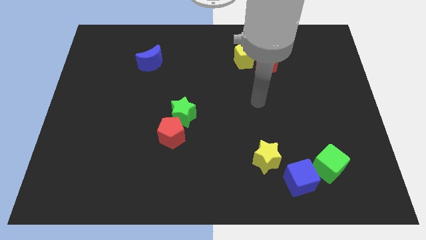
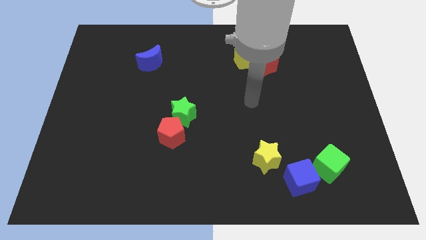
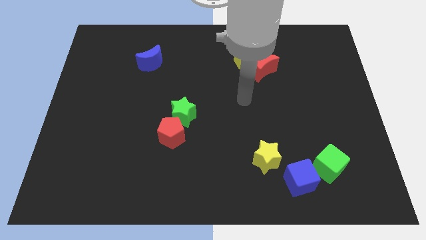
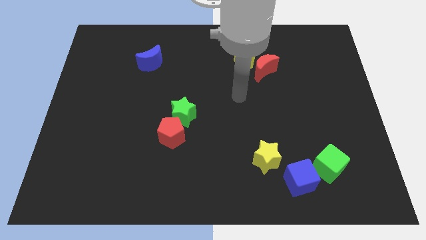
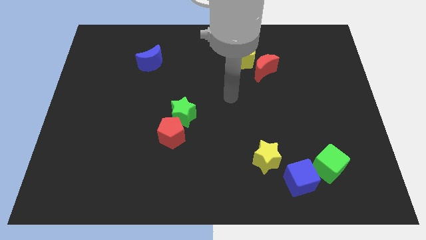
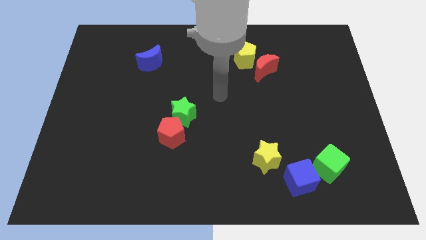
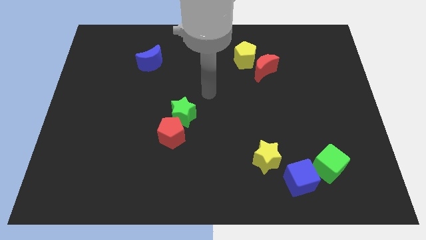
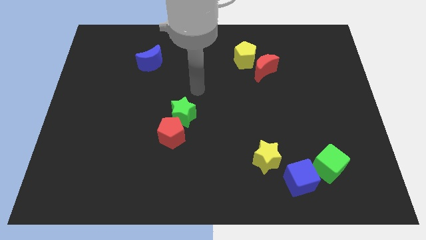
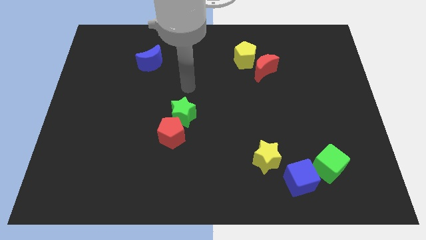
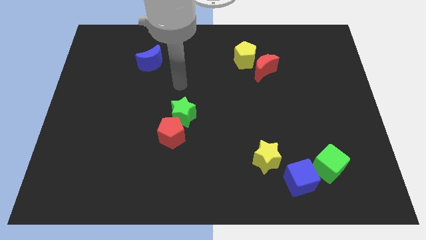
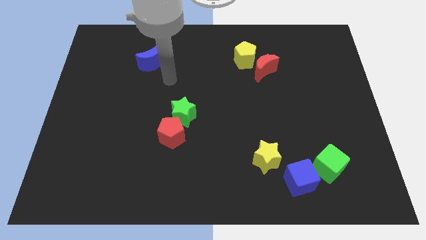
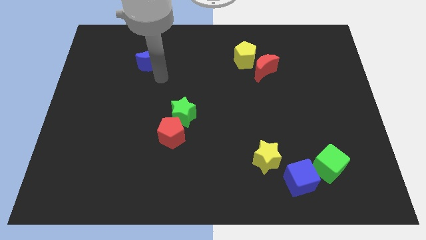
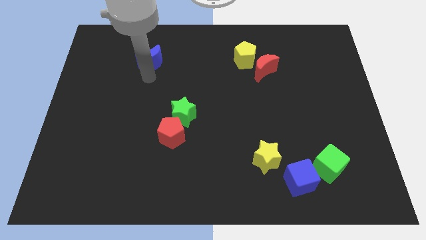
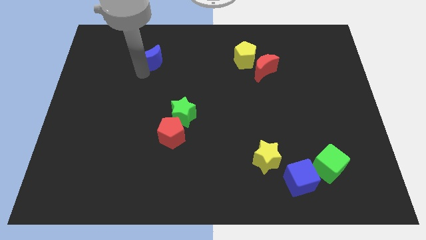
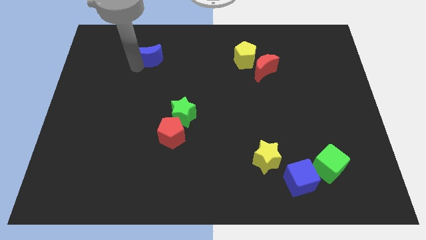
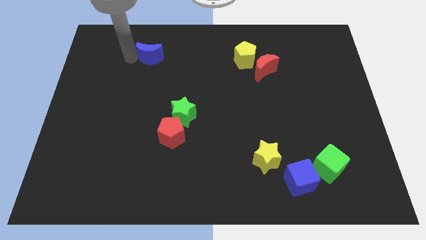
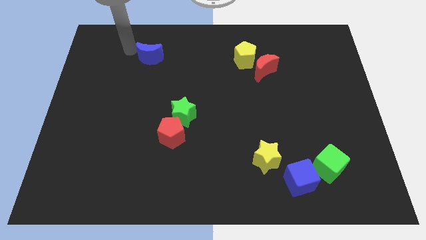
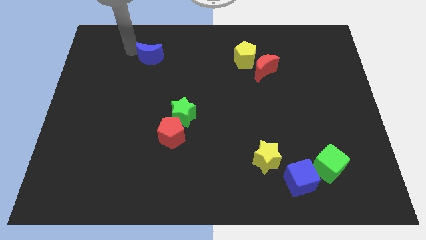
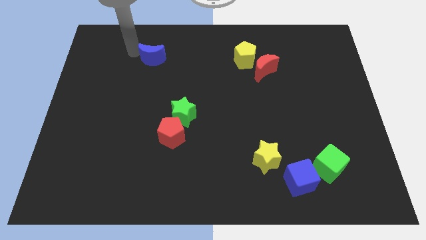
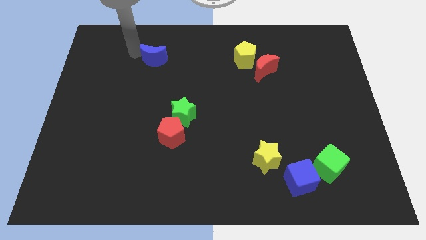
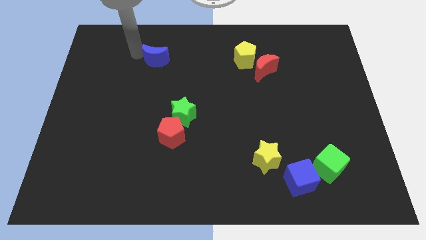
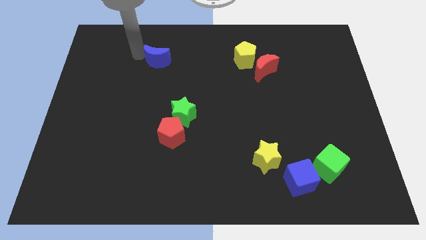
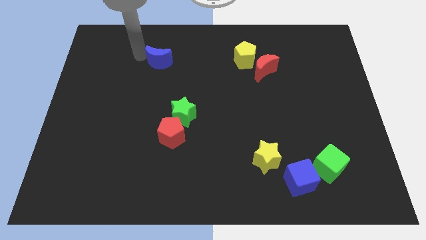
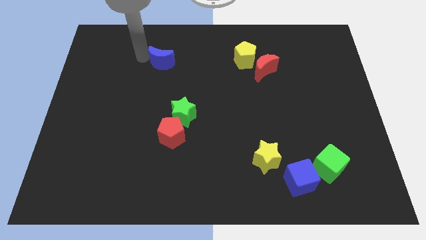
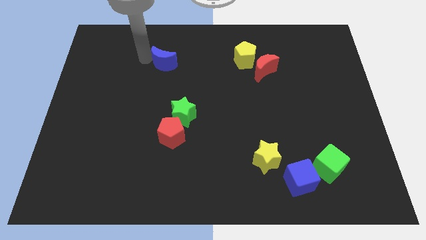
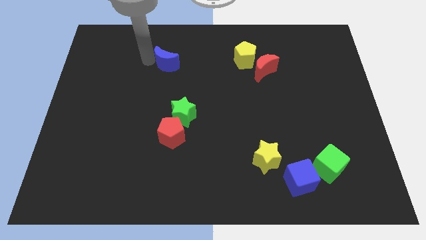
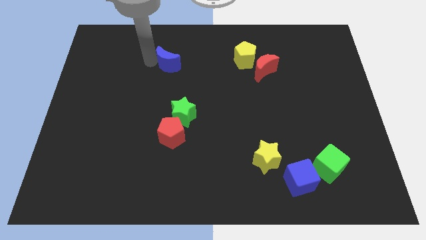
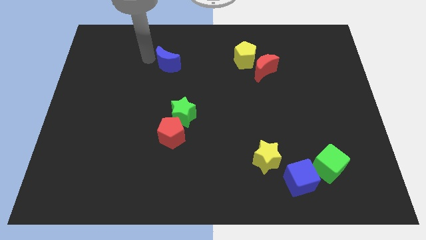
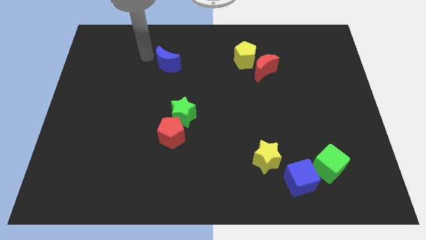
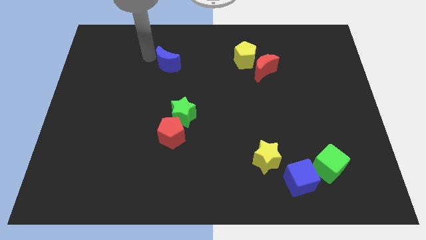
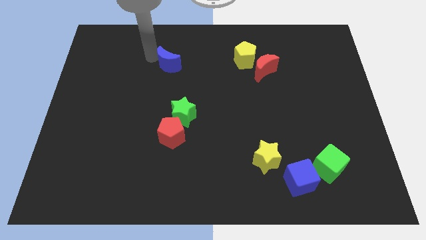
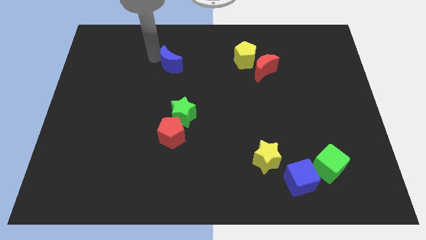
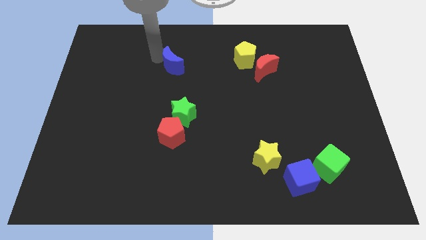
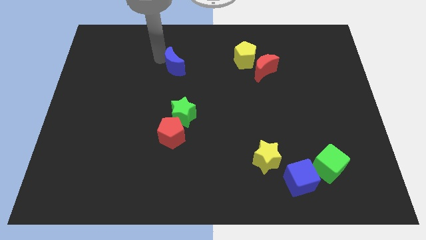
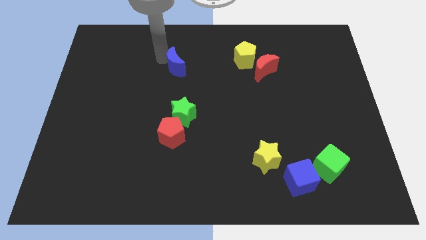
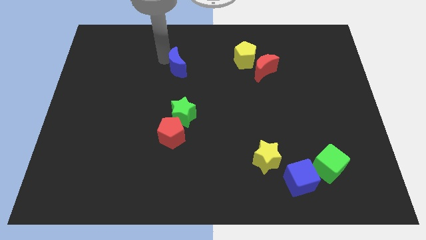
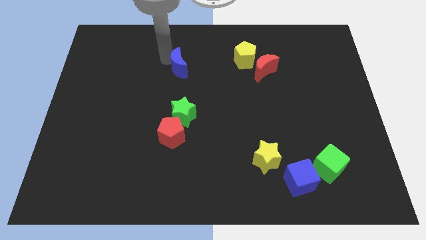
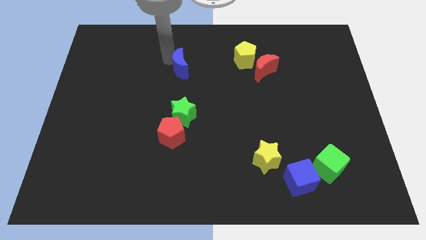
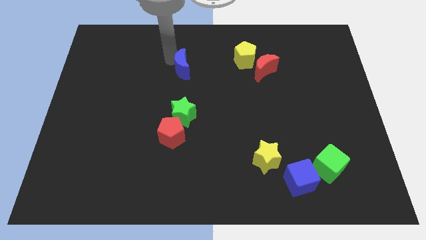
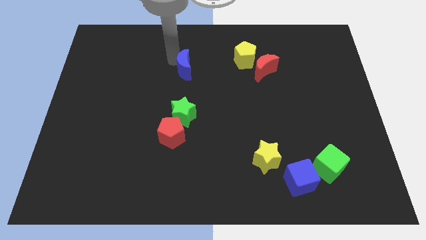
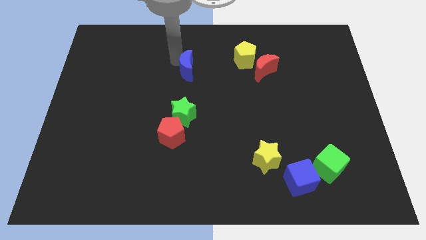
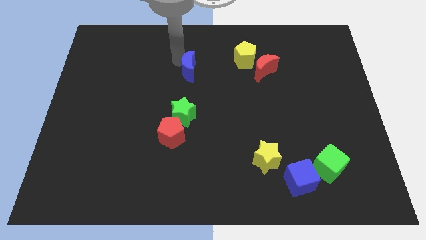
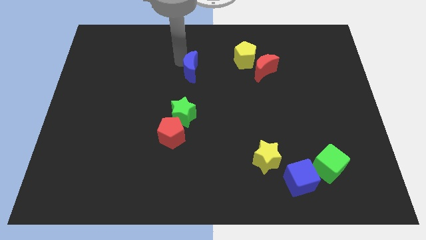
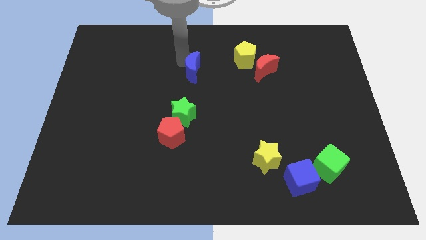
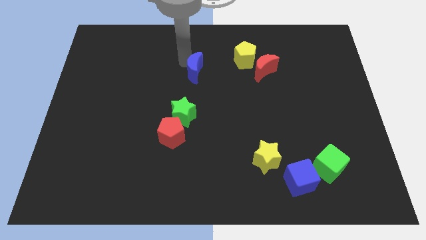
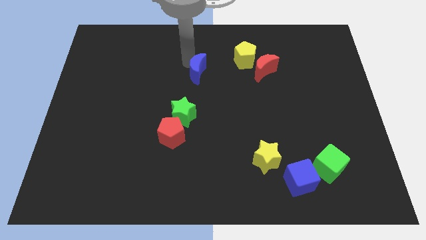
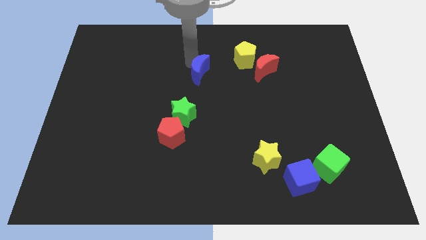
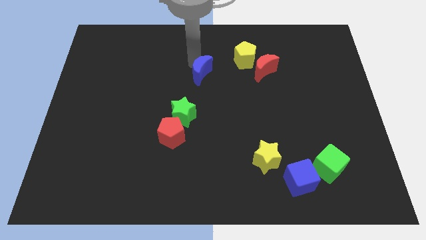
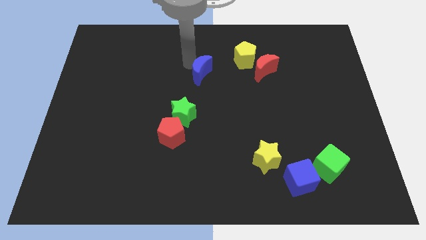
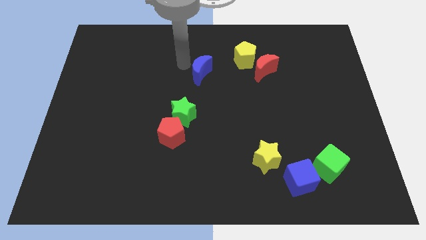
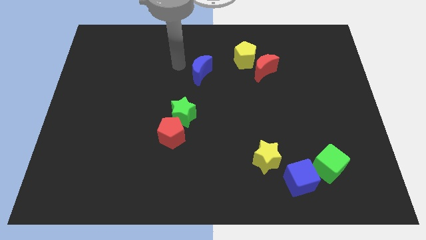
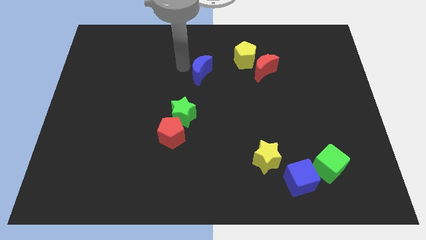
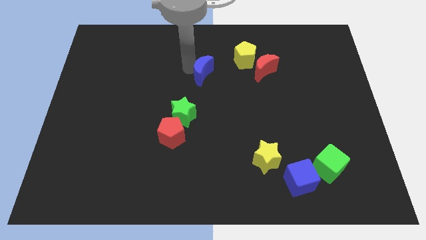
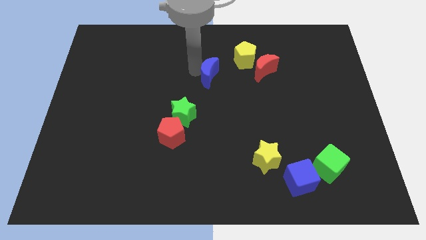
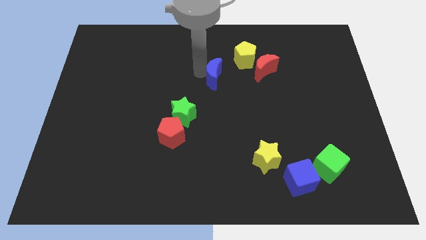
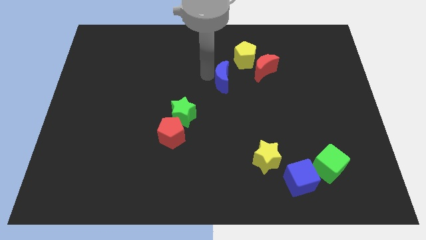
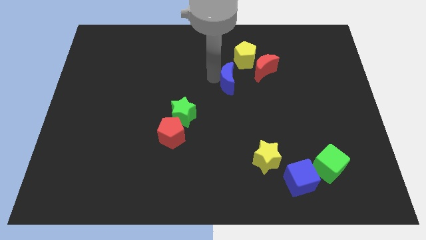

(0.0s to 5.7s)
move the blue moon to the bottom left side of the red moon

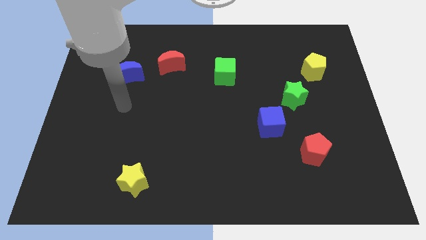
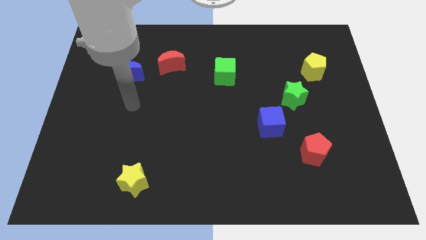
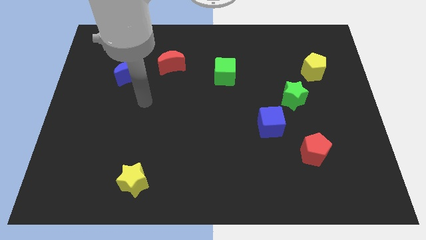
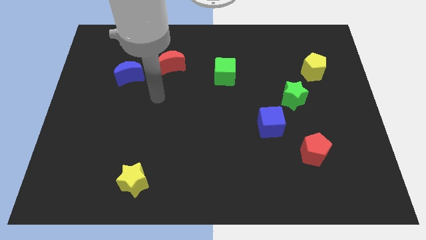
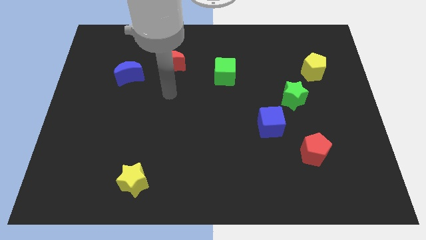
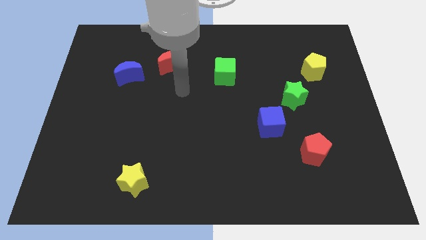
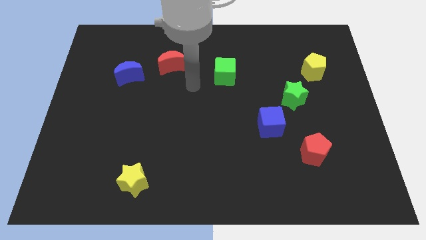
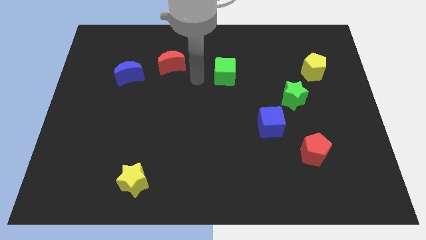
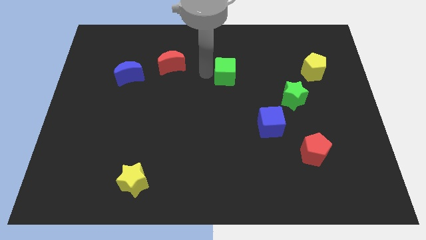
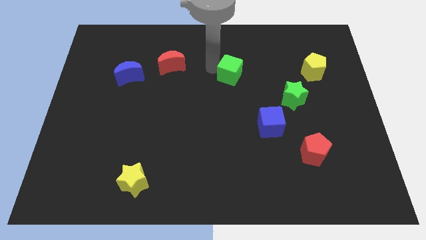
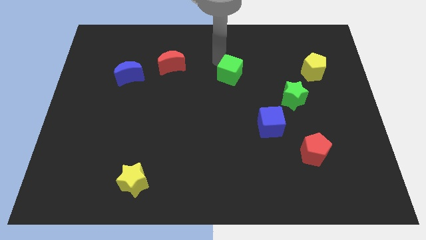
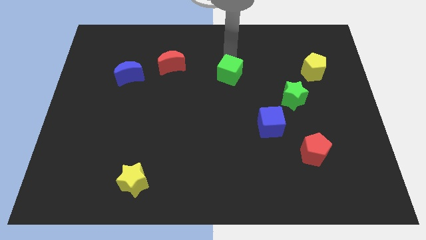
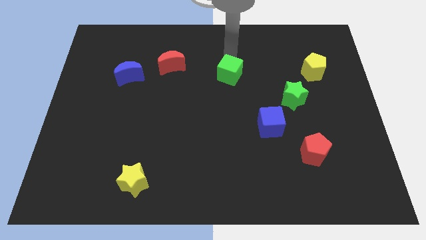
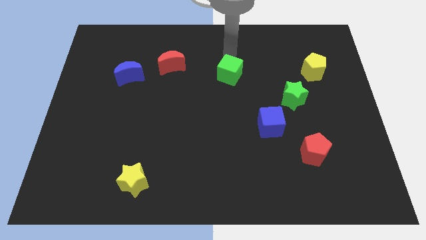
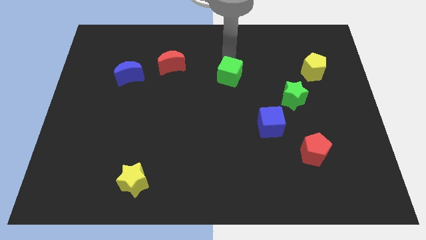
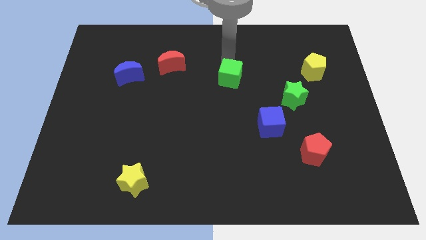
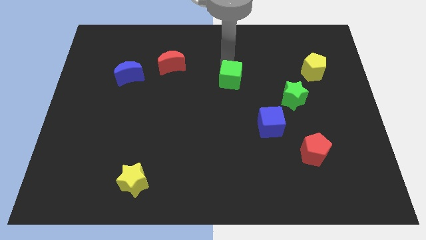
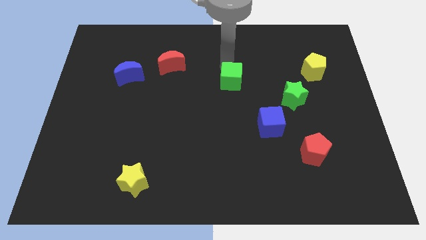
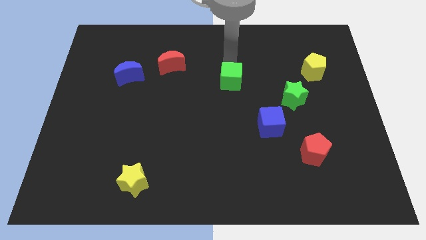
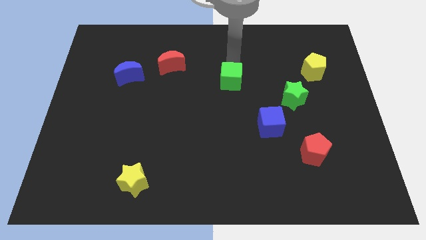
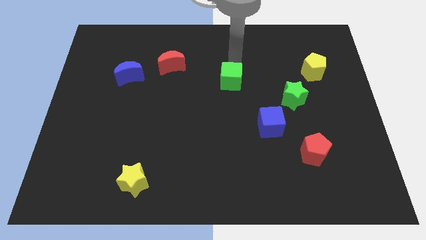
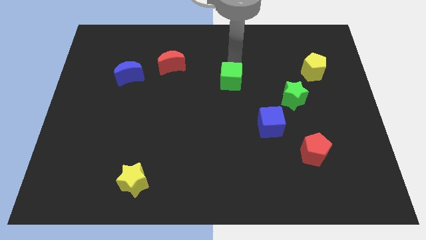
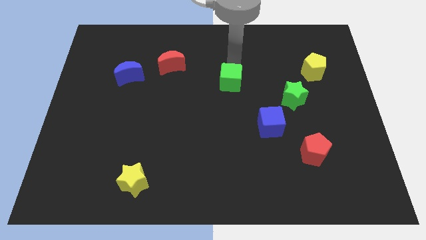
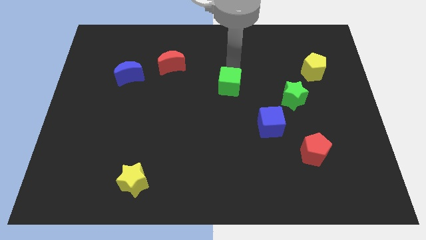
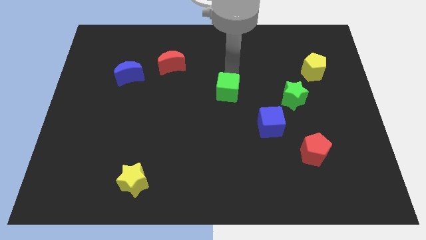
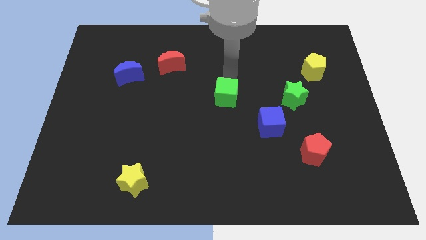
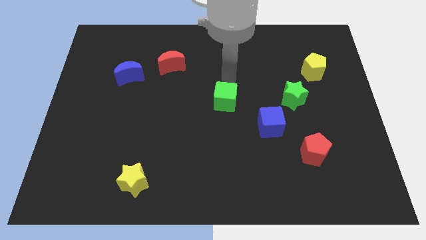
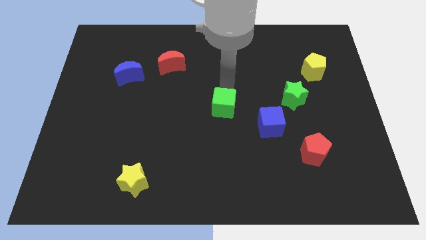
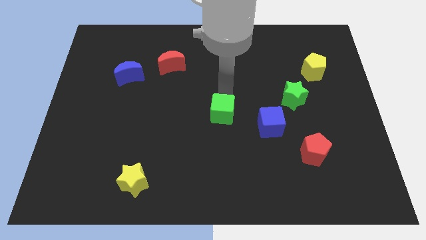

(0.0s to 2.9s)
move the green cube to the left of the blue cube
